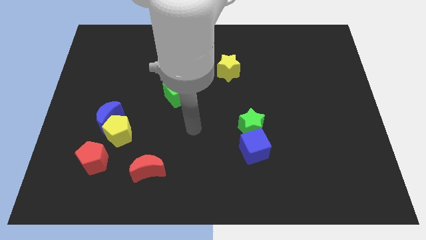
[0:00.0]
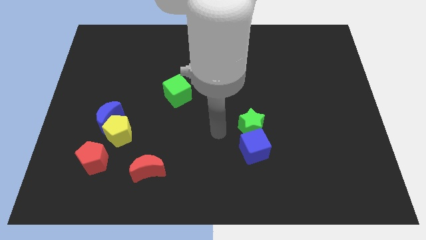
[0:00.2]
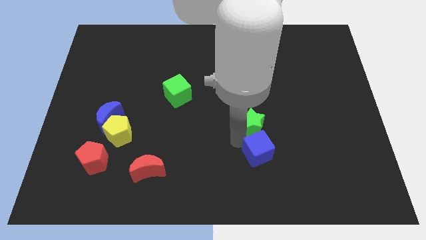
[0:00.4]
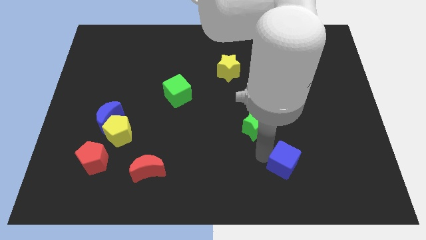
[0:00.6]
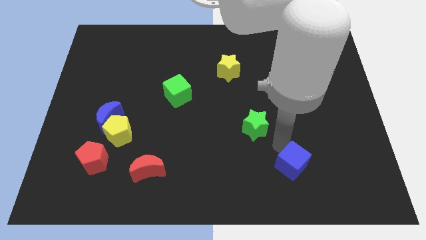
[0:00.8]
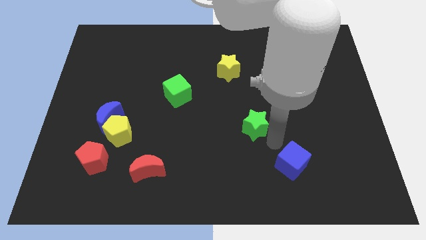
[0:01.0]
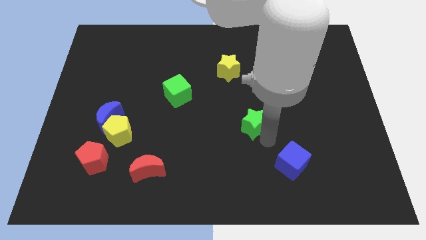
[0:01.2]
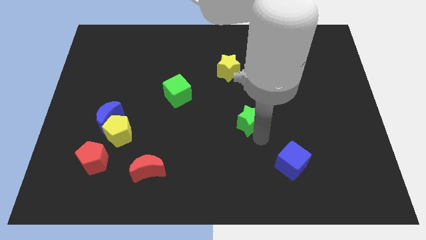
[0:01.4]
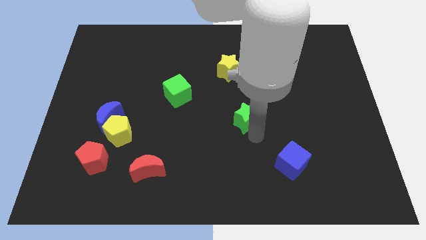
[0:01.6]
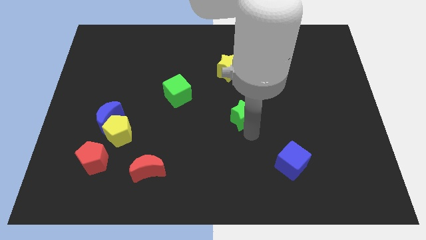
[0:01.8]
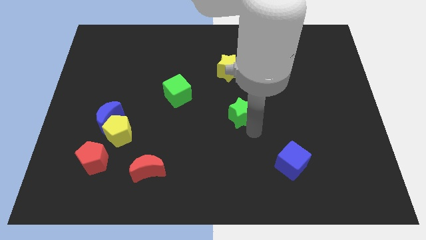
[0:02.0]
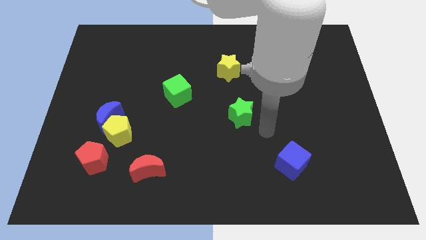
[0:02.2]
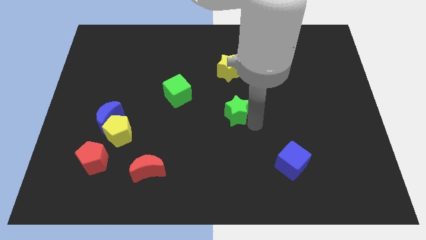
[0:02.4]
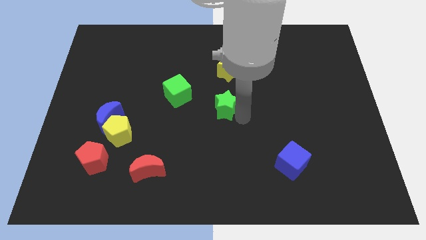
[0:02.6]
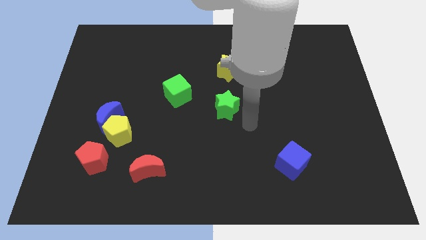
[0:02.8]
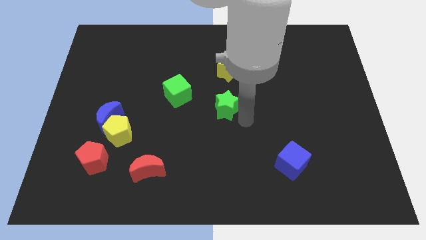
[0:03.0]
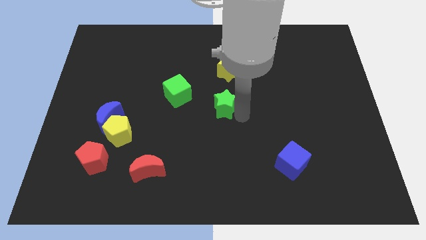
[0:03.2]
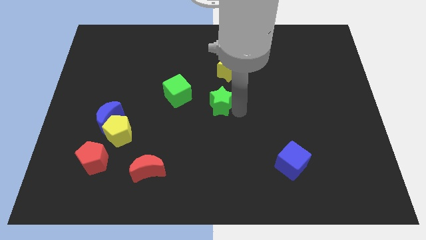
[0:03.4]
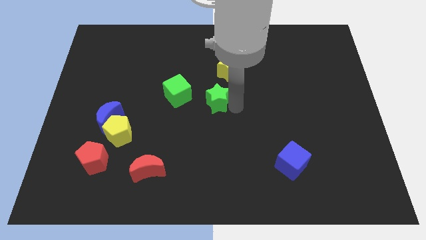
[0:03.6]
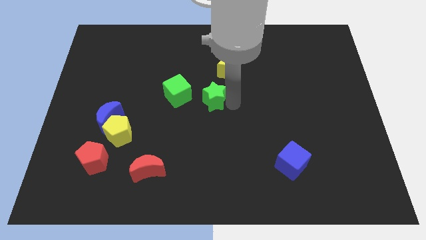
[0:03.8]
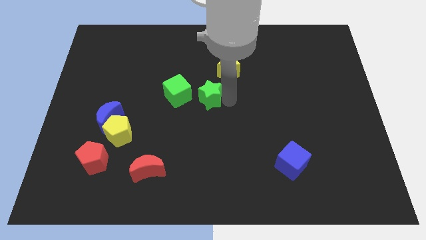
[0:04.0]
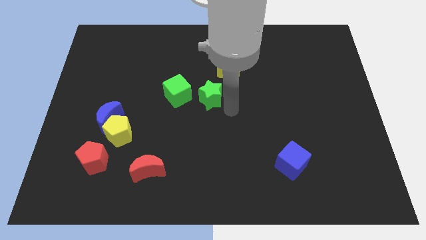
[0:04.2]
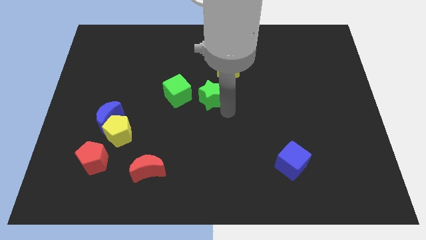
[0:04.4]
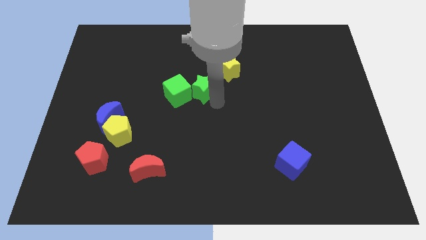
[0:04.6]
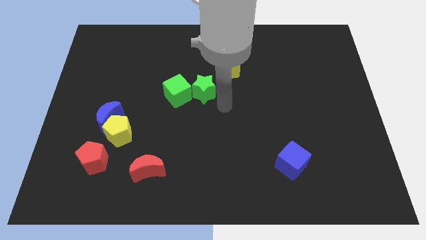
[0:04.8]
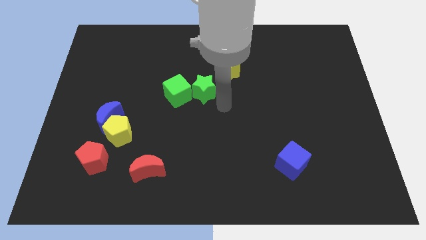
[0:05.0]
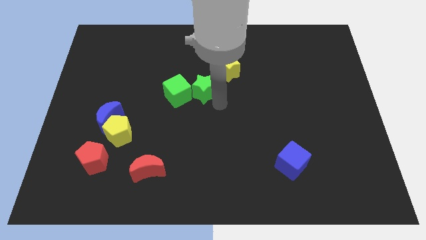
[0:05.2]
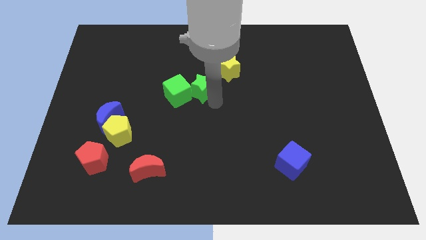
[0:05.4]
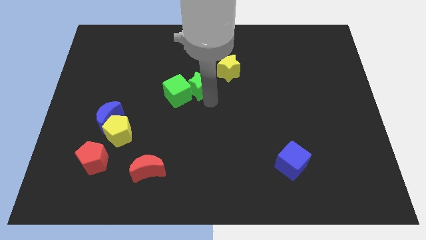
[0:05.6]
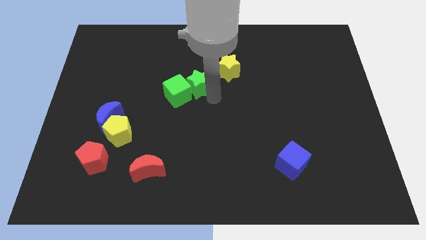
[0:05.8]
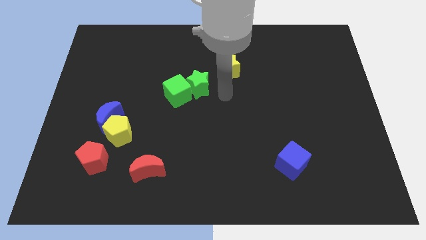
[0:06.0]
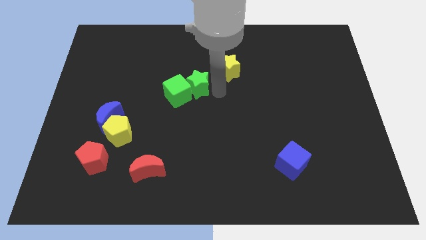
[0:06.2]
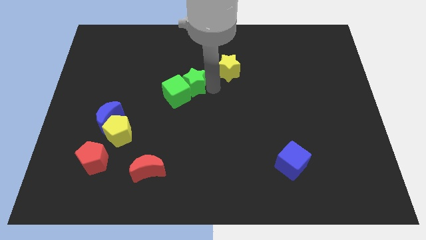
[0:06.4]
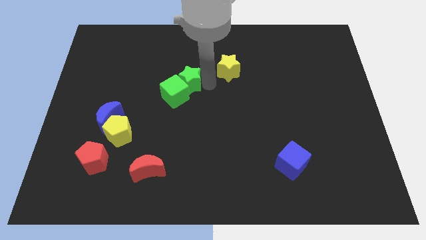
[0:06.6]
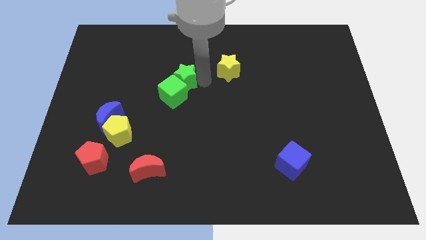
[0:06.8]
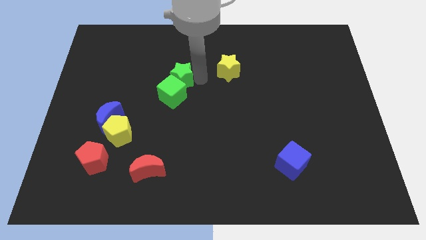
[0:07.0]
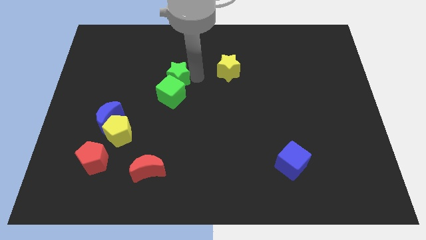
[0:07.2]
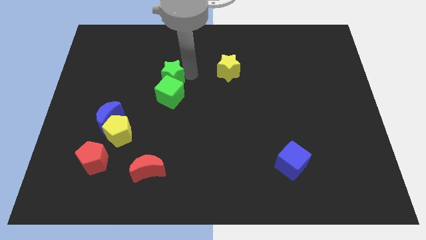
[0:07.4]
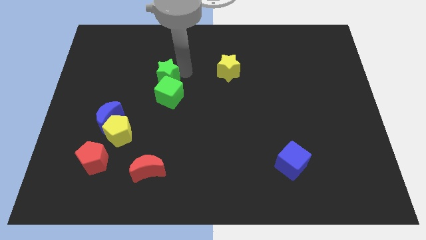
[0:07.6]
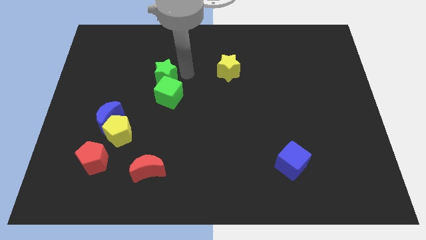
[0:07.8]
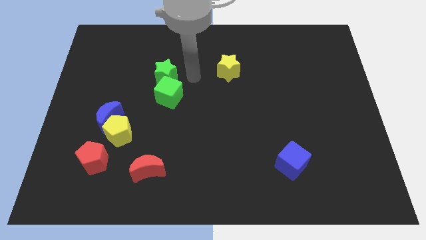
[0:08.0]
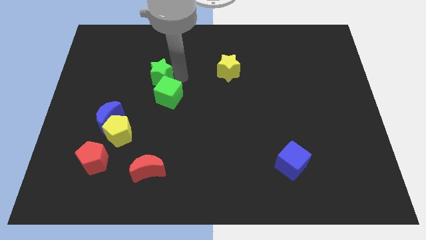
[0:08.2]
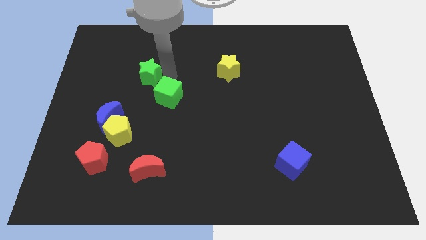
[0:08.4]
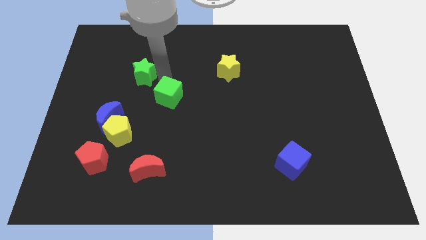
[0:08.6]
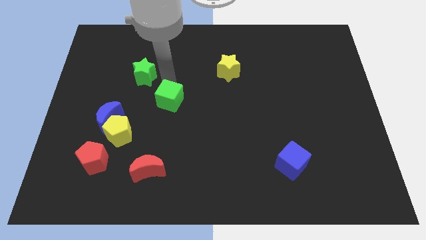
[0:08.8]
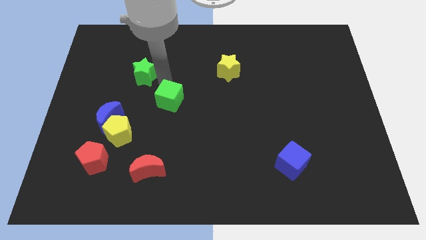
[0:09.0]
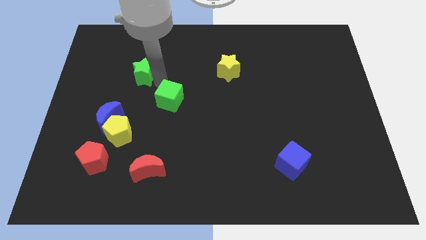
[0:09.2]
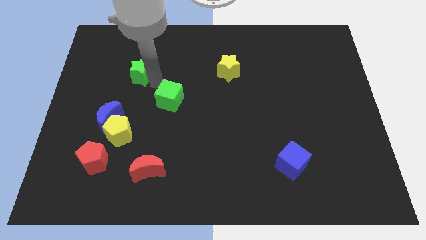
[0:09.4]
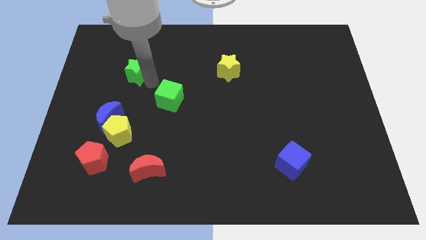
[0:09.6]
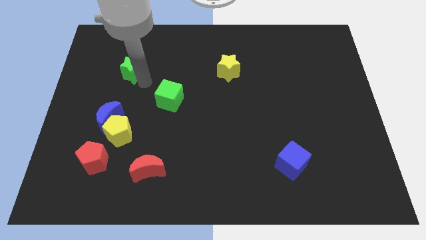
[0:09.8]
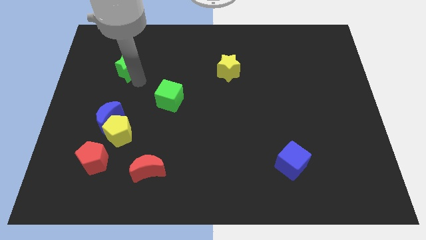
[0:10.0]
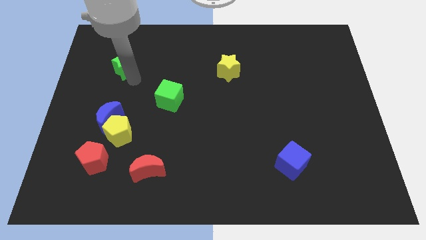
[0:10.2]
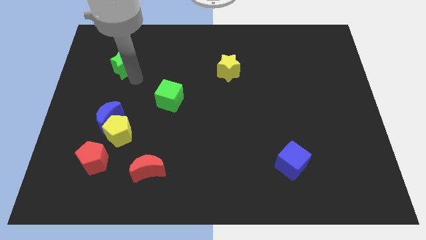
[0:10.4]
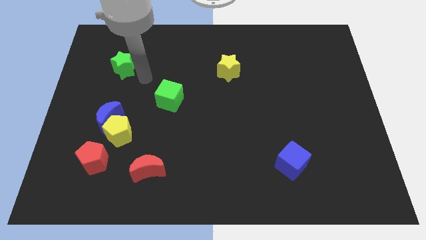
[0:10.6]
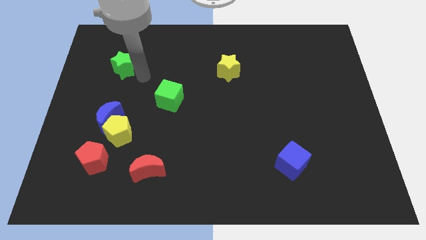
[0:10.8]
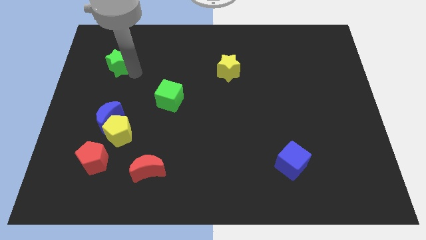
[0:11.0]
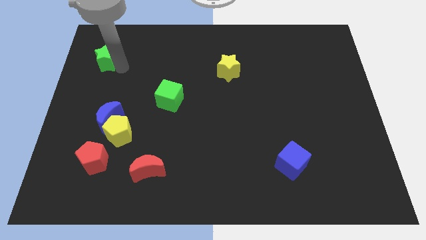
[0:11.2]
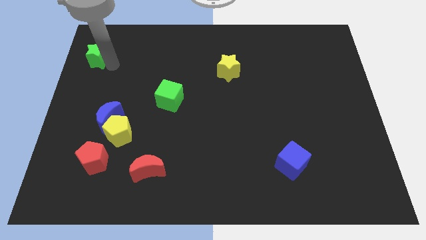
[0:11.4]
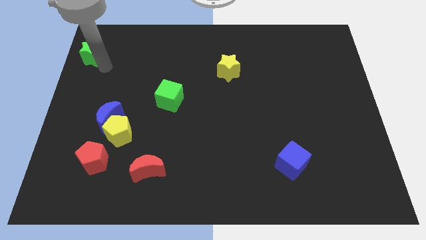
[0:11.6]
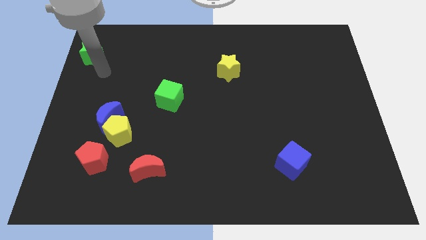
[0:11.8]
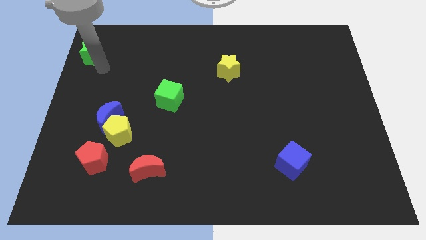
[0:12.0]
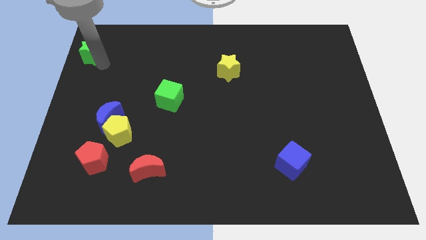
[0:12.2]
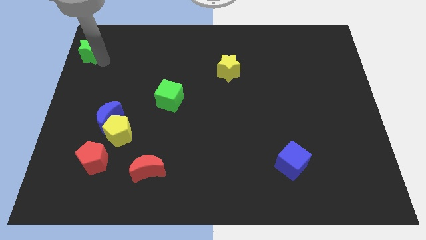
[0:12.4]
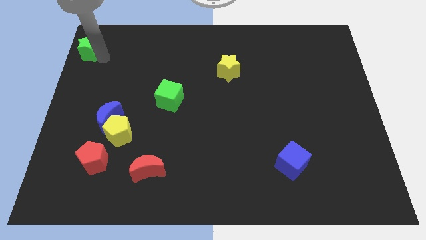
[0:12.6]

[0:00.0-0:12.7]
slide the green star to the top left
